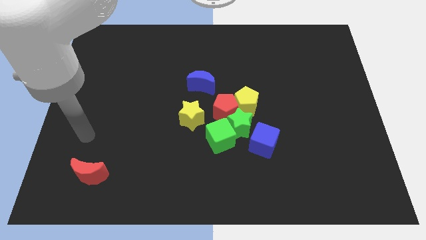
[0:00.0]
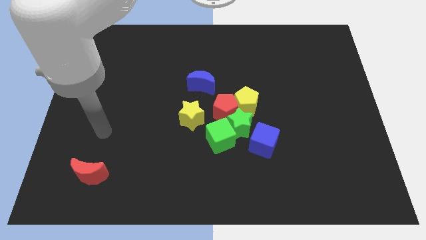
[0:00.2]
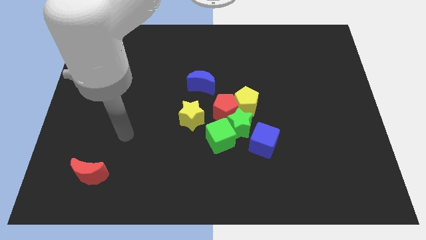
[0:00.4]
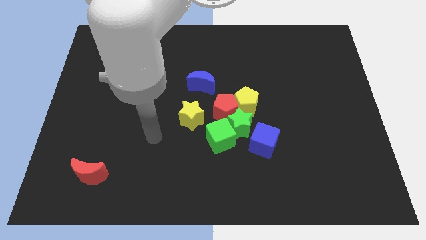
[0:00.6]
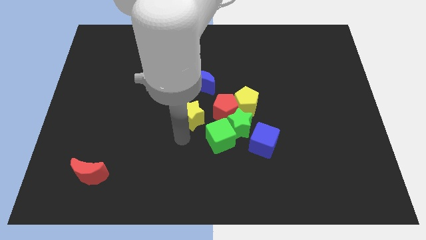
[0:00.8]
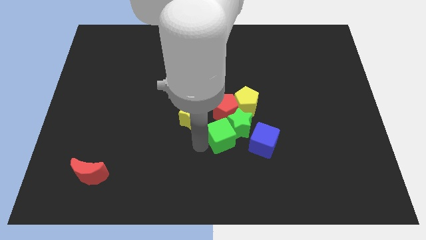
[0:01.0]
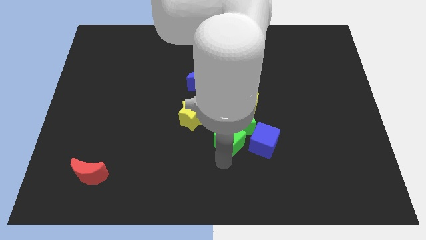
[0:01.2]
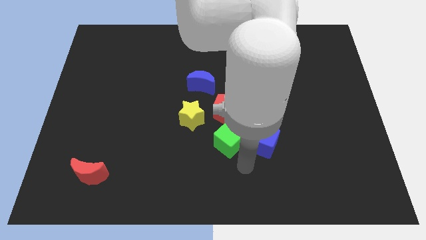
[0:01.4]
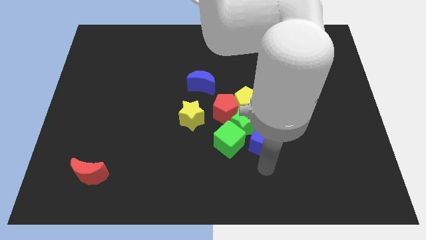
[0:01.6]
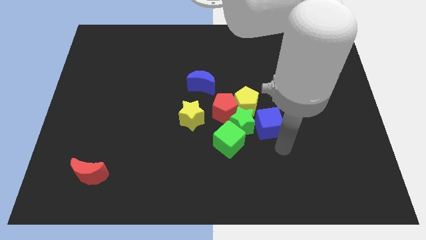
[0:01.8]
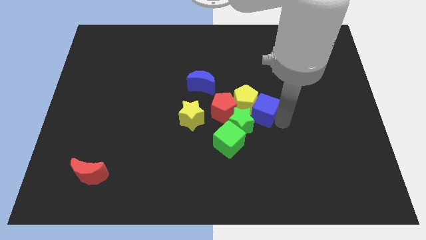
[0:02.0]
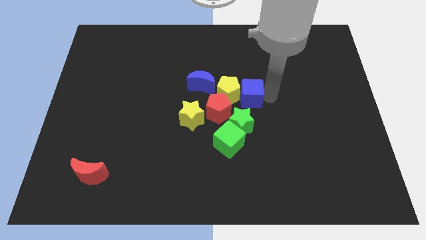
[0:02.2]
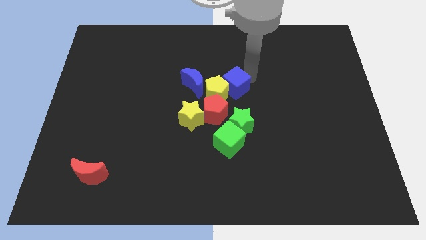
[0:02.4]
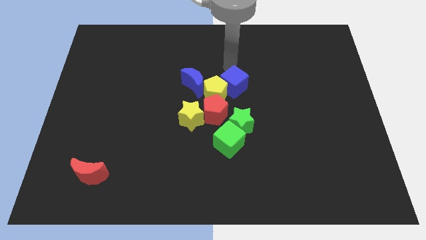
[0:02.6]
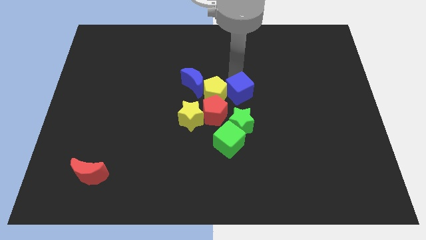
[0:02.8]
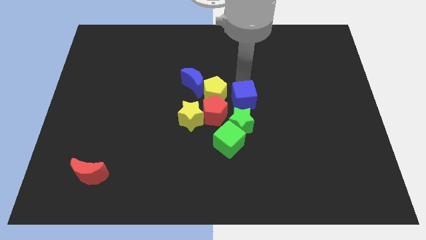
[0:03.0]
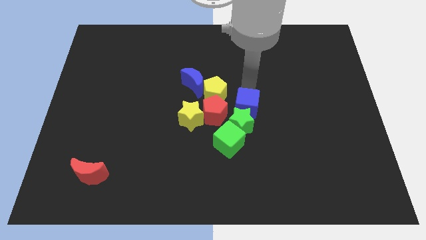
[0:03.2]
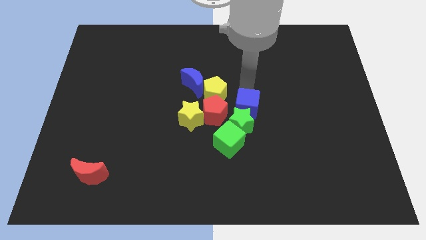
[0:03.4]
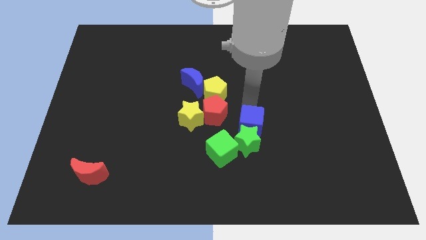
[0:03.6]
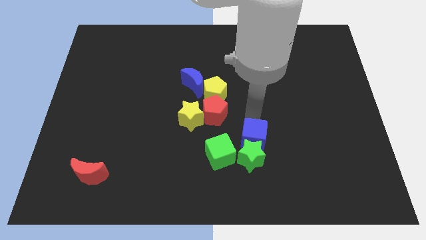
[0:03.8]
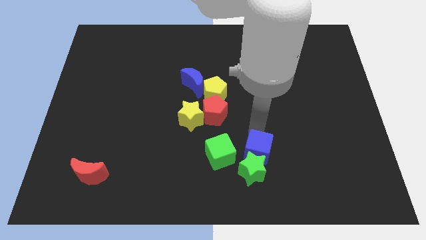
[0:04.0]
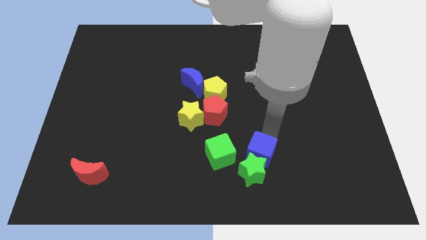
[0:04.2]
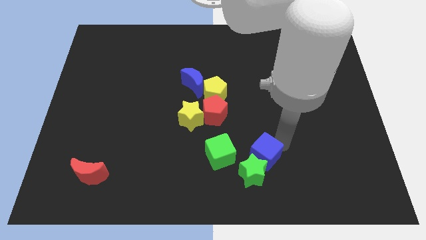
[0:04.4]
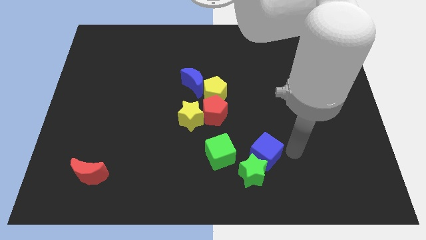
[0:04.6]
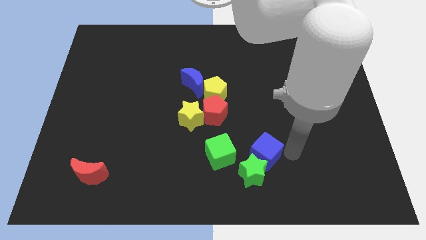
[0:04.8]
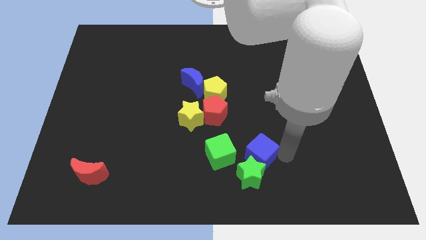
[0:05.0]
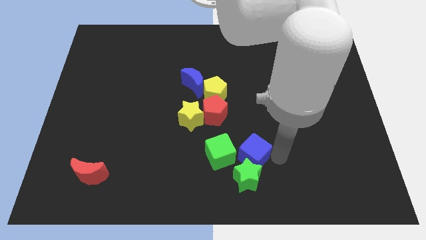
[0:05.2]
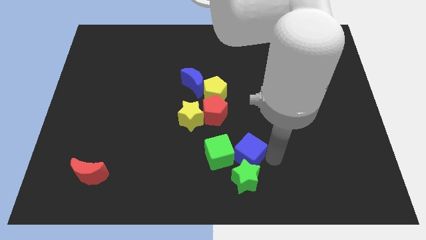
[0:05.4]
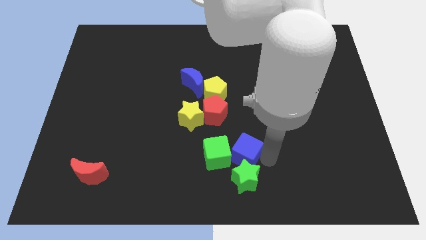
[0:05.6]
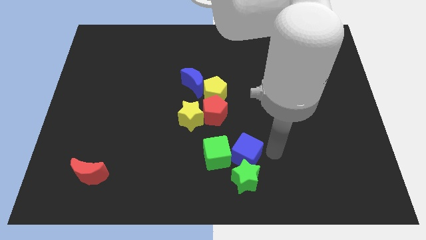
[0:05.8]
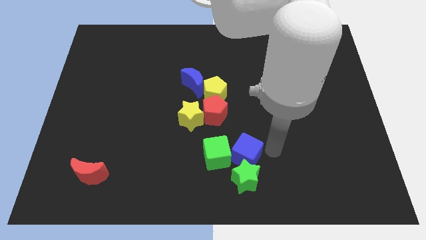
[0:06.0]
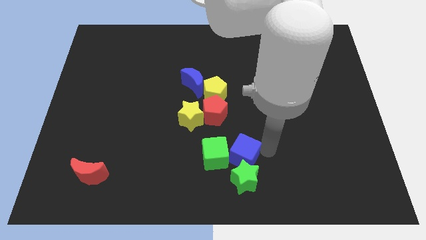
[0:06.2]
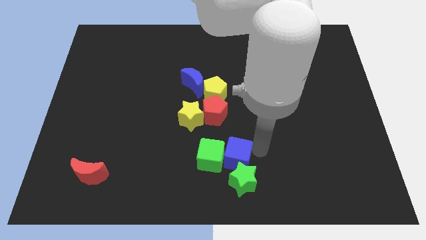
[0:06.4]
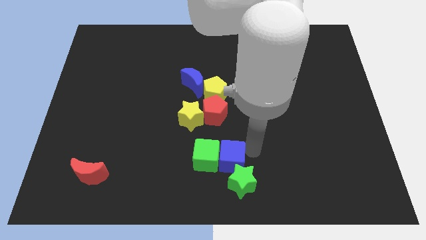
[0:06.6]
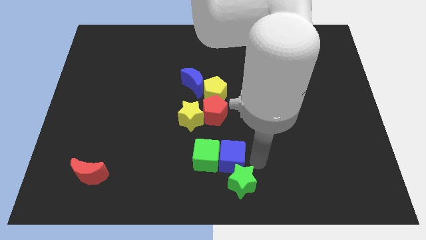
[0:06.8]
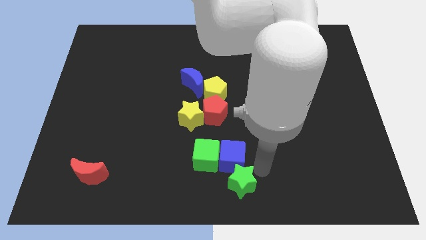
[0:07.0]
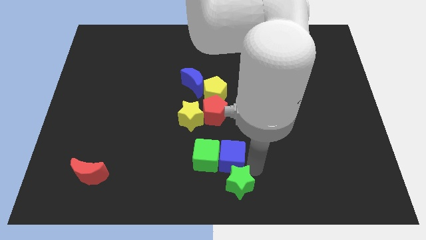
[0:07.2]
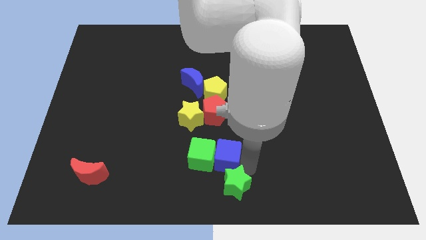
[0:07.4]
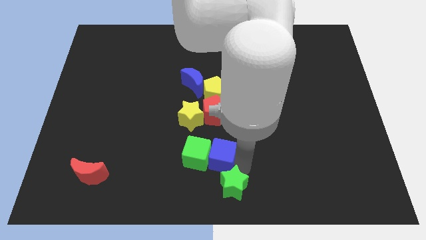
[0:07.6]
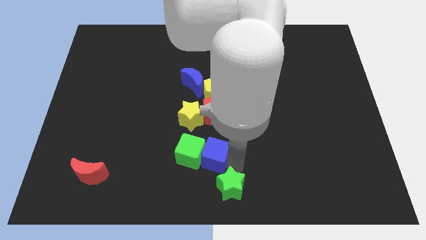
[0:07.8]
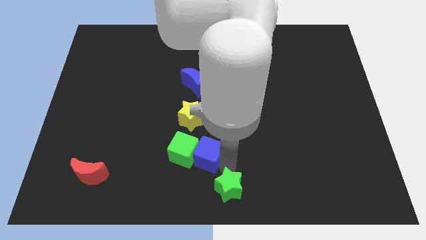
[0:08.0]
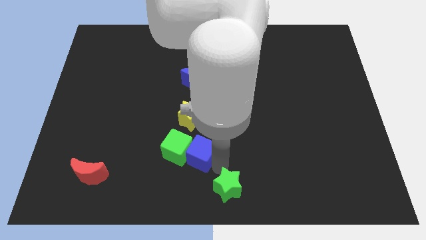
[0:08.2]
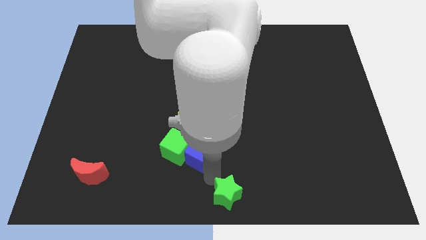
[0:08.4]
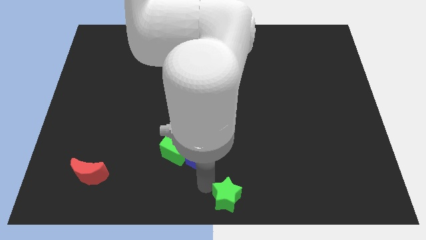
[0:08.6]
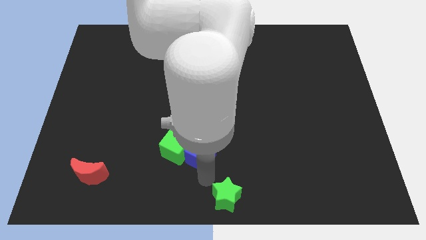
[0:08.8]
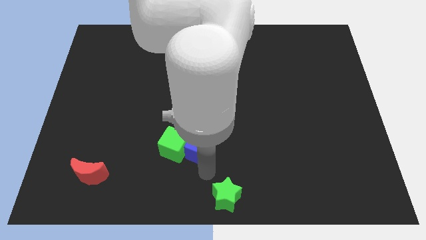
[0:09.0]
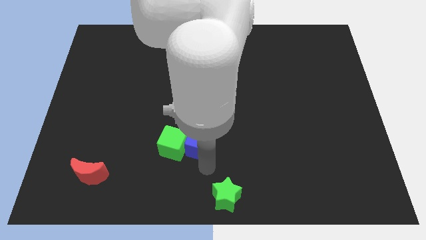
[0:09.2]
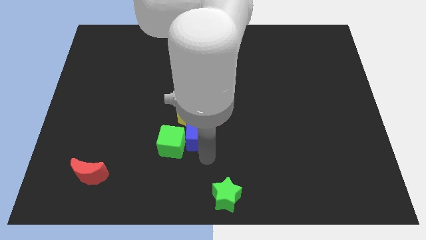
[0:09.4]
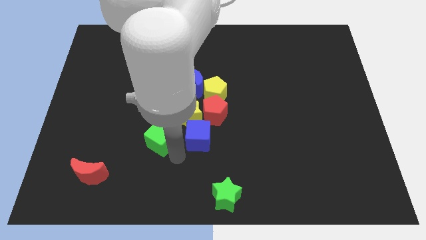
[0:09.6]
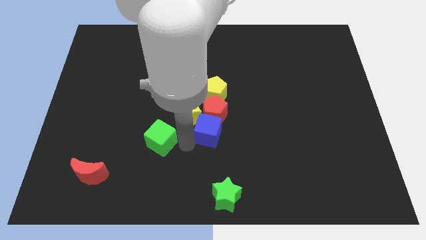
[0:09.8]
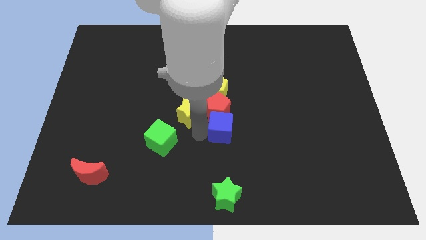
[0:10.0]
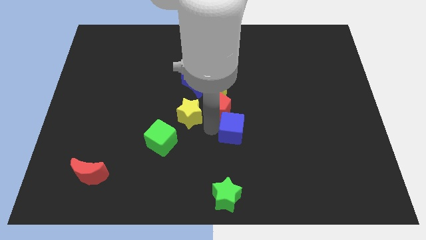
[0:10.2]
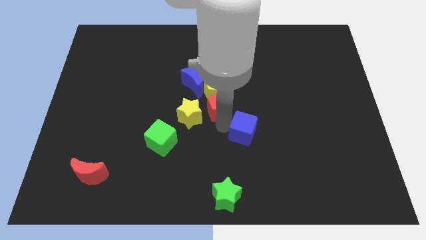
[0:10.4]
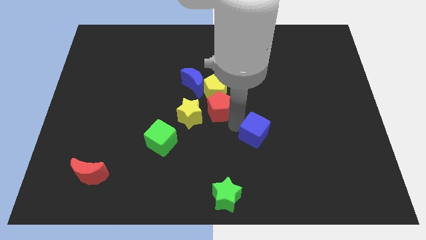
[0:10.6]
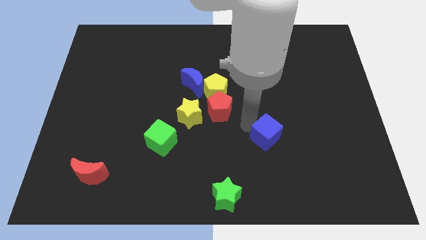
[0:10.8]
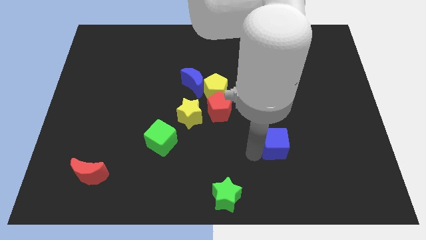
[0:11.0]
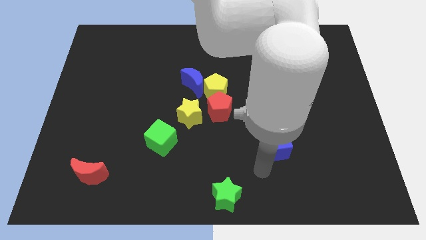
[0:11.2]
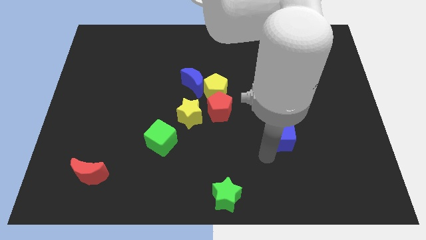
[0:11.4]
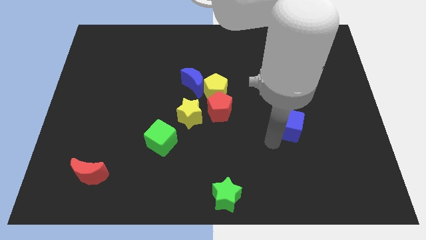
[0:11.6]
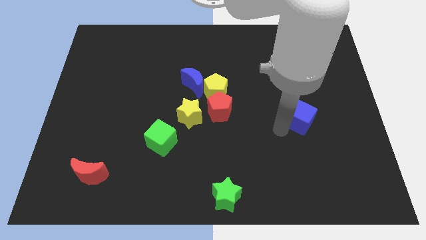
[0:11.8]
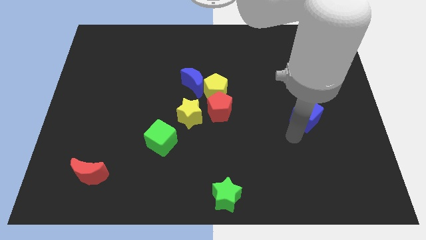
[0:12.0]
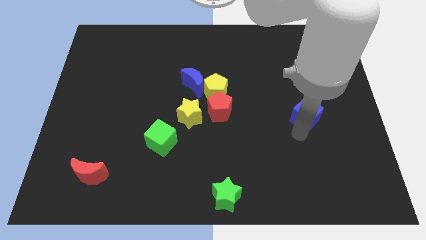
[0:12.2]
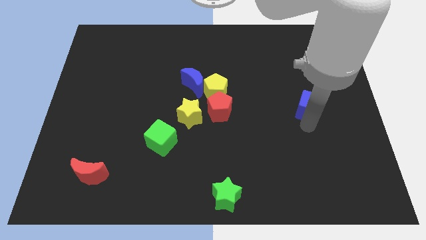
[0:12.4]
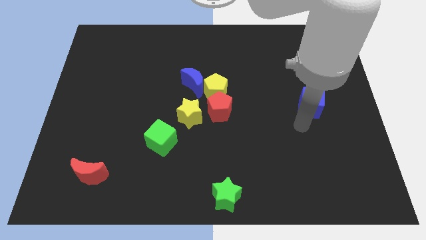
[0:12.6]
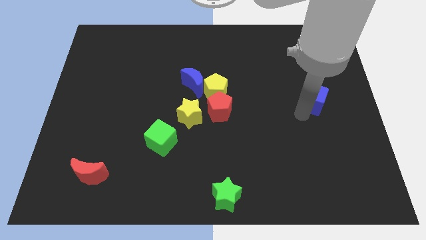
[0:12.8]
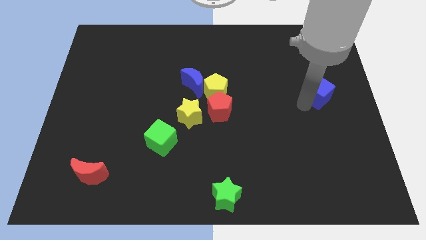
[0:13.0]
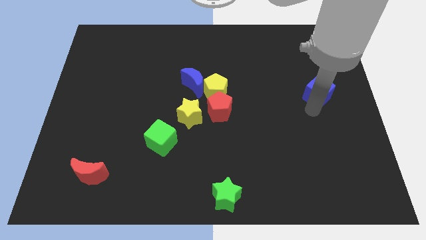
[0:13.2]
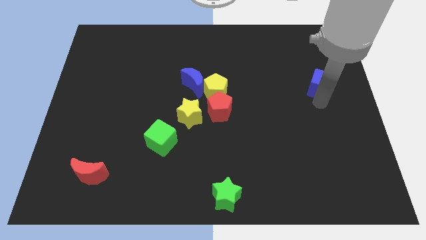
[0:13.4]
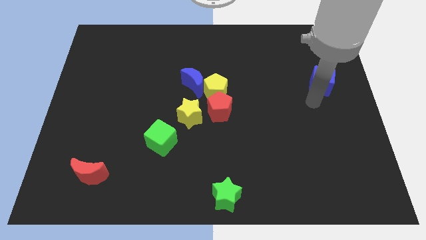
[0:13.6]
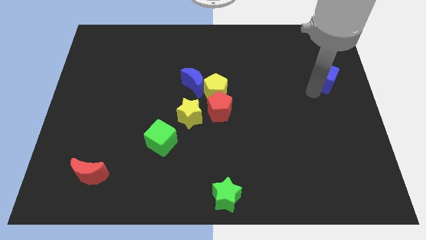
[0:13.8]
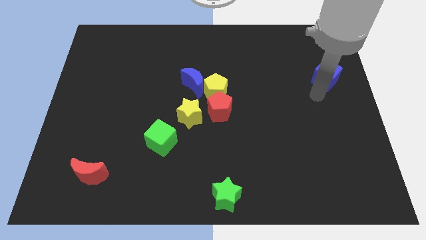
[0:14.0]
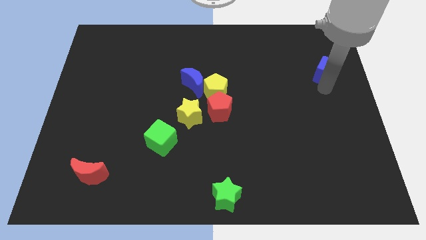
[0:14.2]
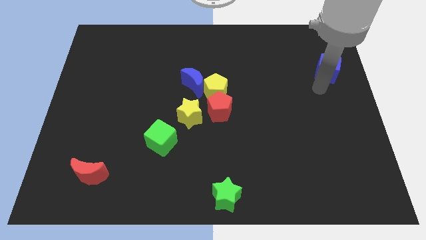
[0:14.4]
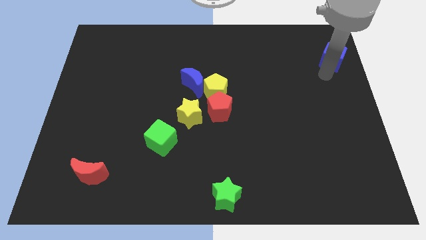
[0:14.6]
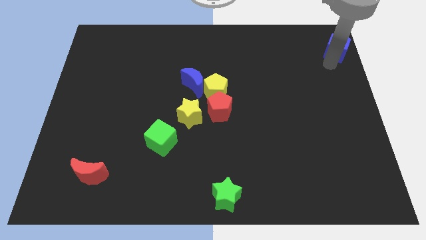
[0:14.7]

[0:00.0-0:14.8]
put the blue cube to the top right
